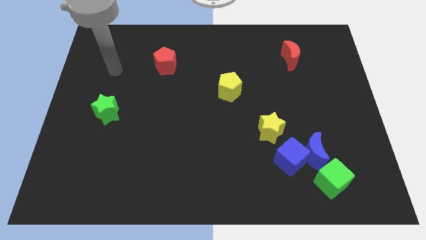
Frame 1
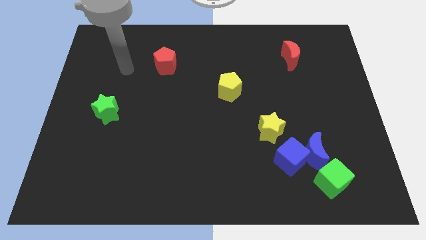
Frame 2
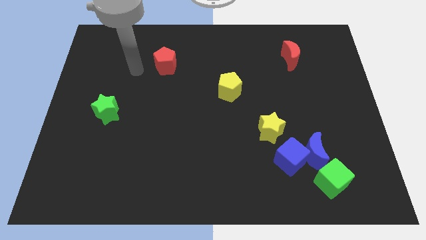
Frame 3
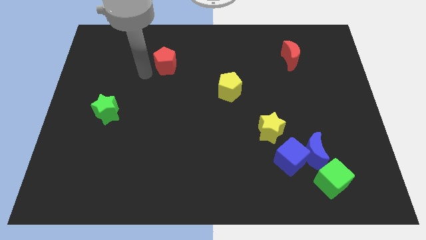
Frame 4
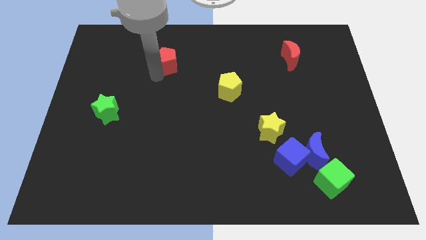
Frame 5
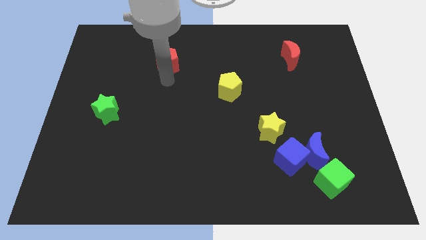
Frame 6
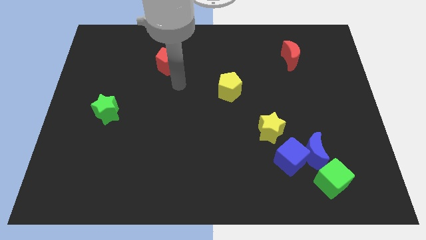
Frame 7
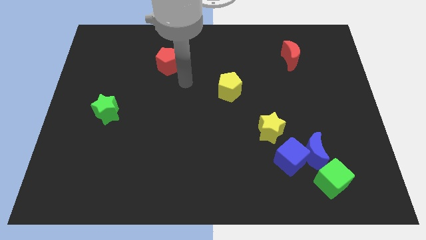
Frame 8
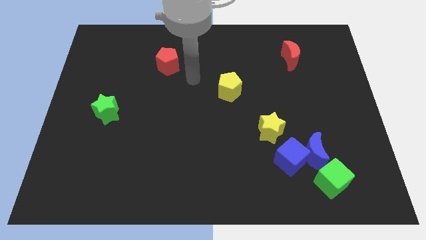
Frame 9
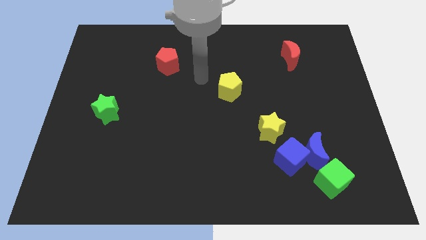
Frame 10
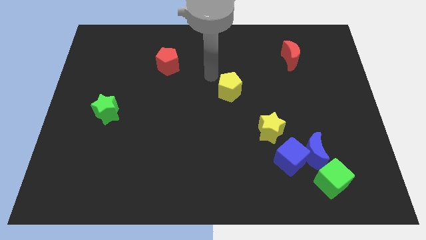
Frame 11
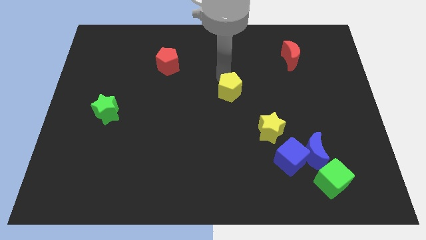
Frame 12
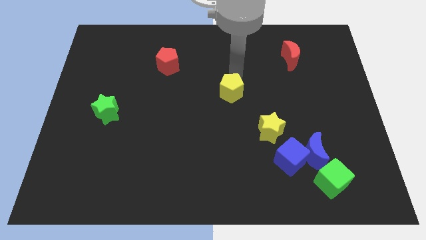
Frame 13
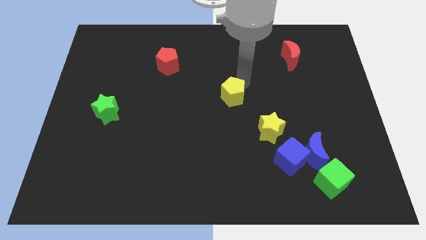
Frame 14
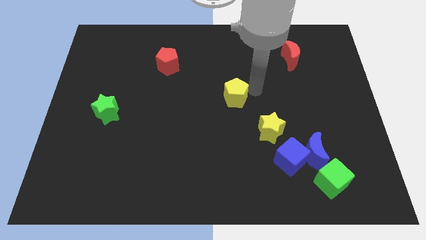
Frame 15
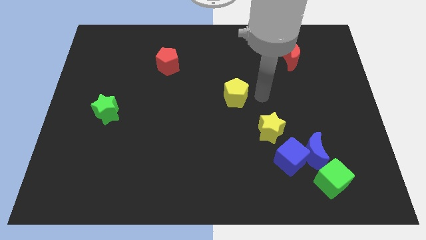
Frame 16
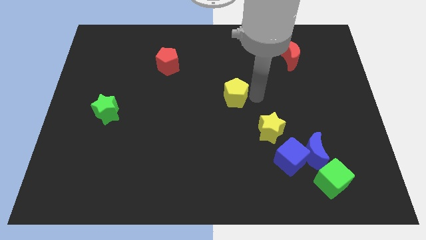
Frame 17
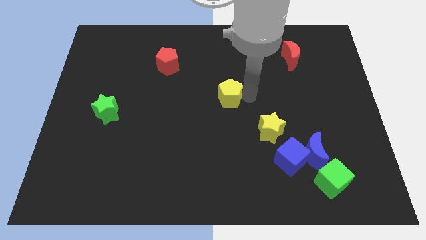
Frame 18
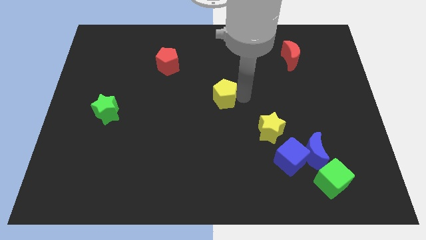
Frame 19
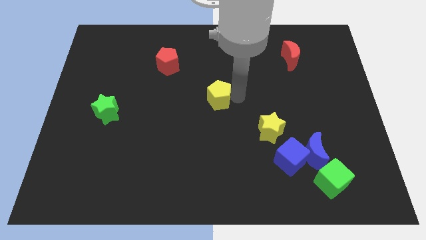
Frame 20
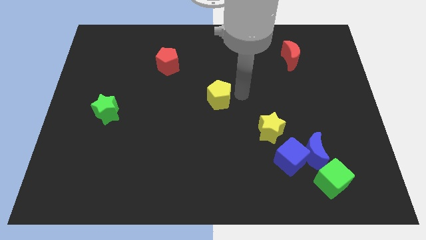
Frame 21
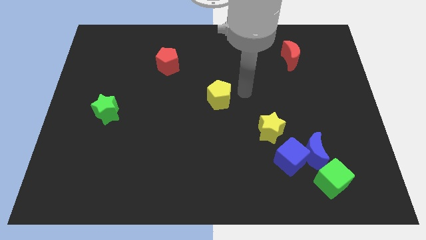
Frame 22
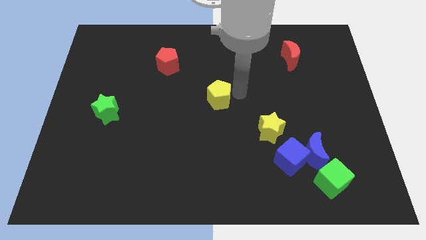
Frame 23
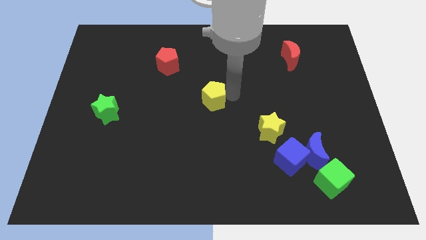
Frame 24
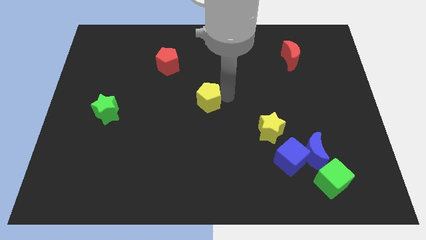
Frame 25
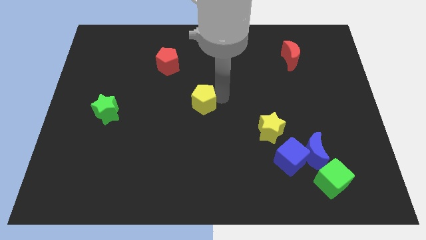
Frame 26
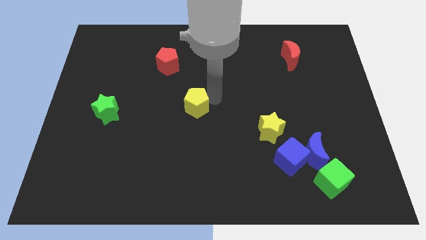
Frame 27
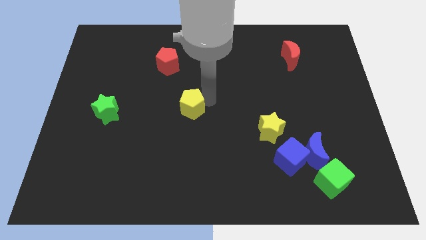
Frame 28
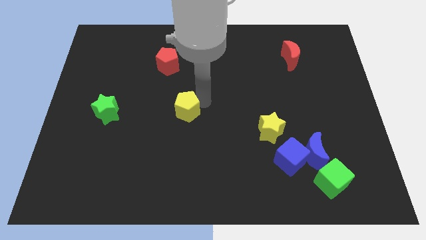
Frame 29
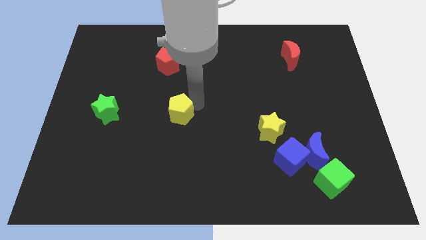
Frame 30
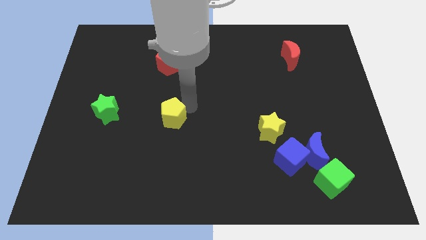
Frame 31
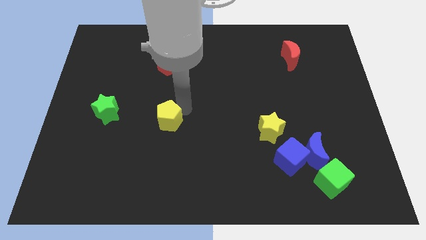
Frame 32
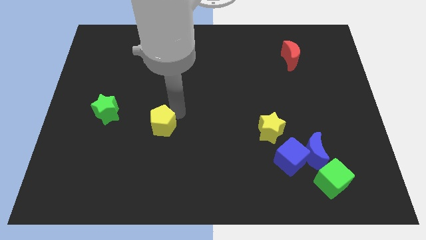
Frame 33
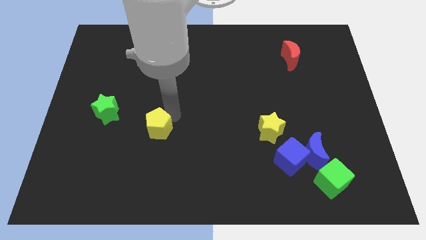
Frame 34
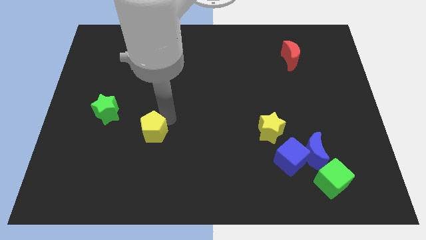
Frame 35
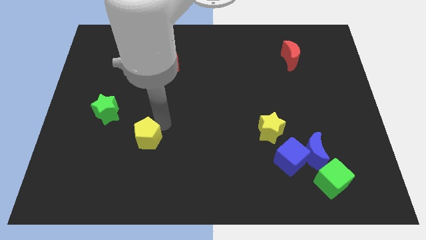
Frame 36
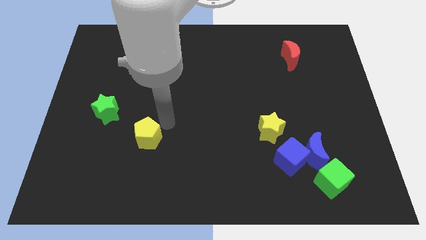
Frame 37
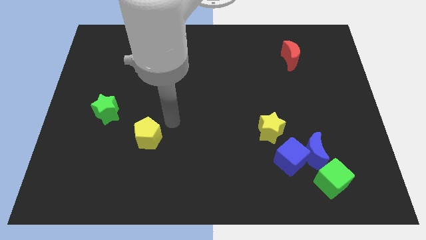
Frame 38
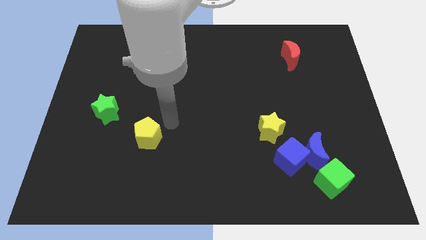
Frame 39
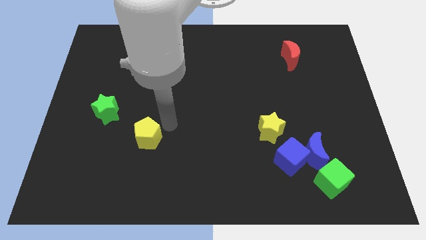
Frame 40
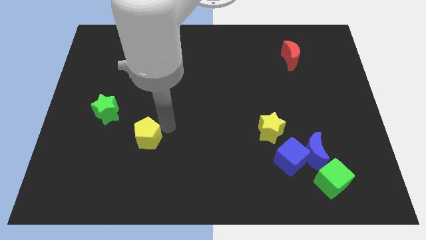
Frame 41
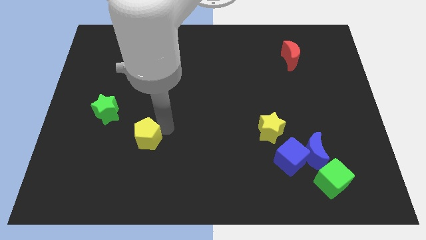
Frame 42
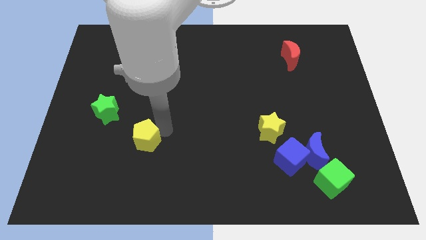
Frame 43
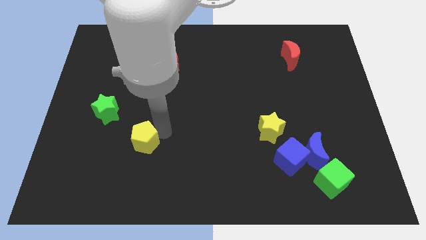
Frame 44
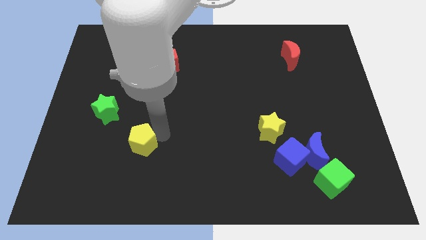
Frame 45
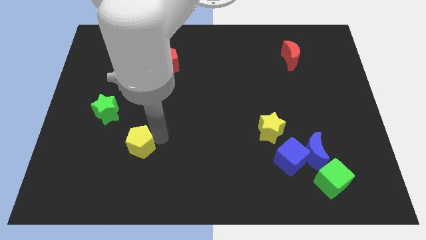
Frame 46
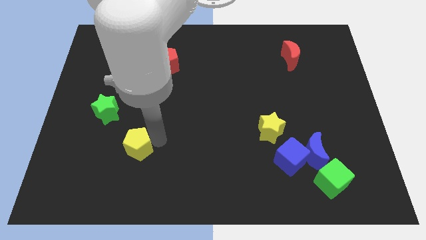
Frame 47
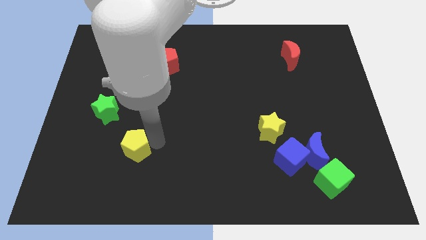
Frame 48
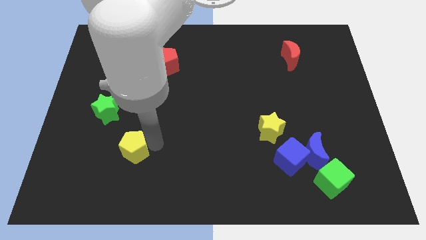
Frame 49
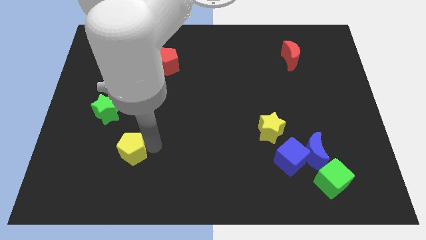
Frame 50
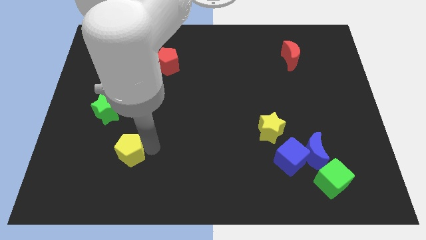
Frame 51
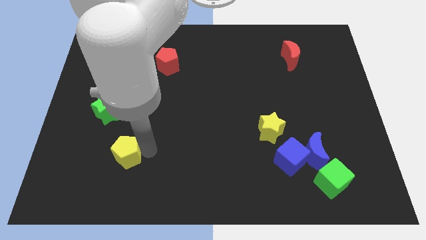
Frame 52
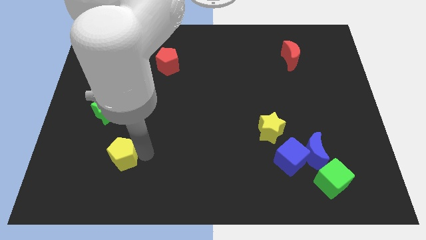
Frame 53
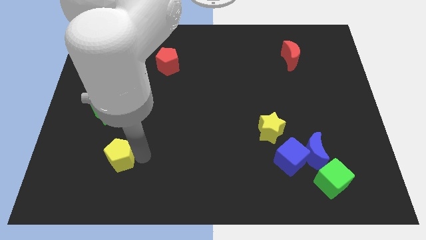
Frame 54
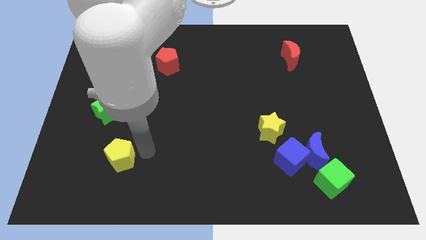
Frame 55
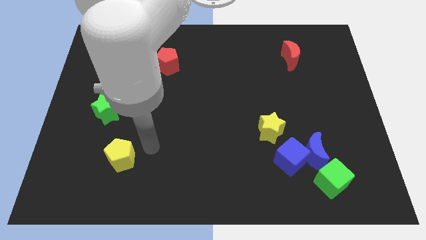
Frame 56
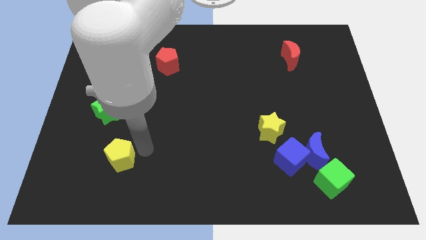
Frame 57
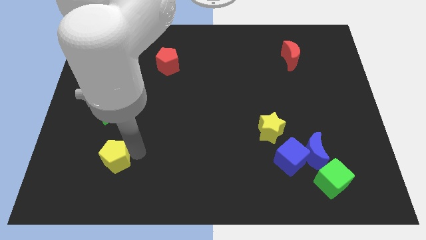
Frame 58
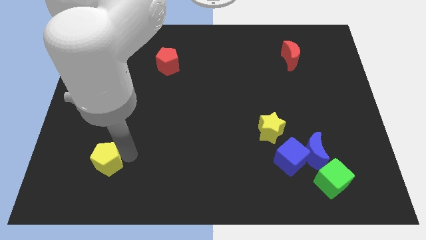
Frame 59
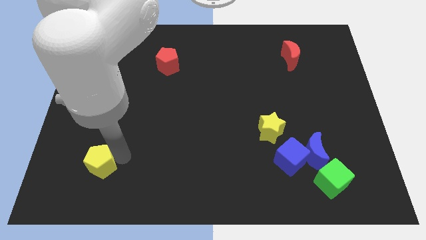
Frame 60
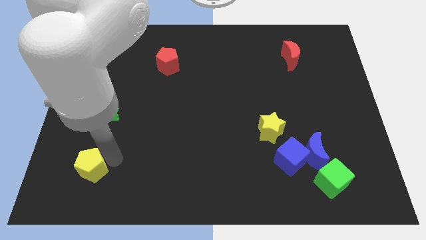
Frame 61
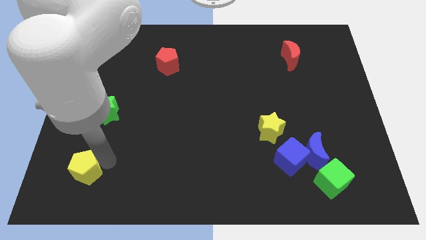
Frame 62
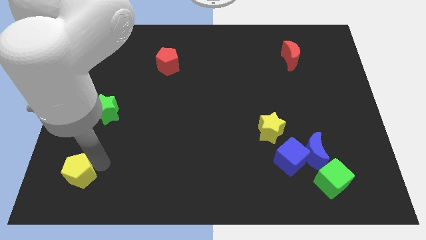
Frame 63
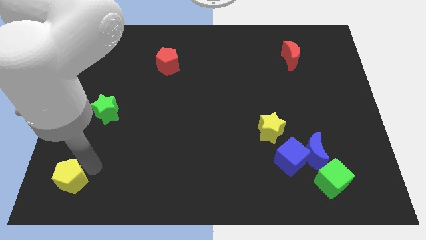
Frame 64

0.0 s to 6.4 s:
slide the yellow pentagon to the lower left corner

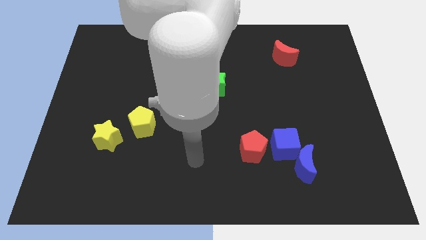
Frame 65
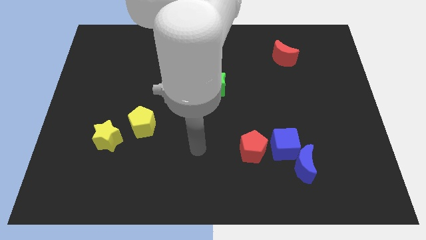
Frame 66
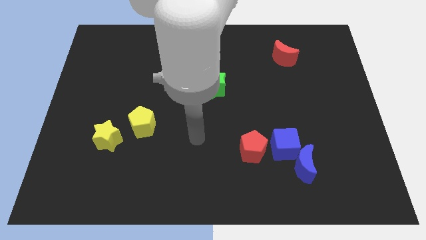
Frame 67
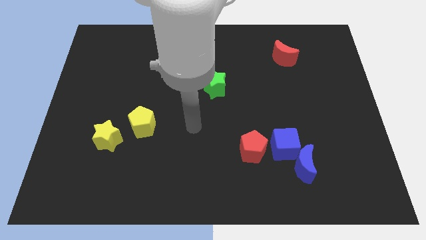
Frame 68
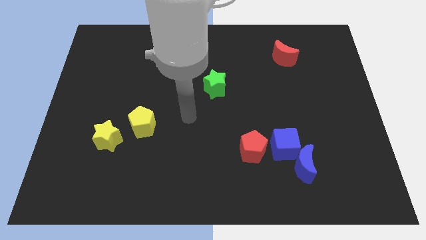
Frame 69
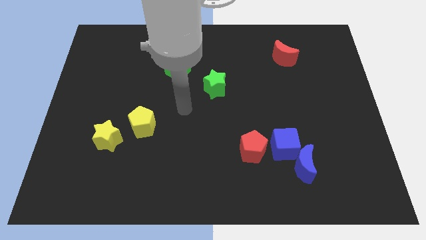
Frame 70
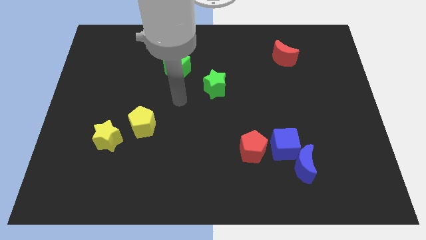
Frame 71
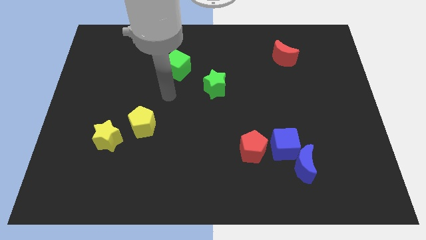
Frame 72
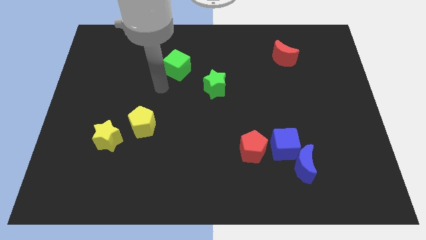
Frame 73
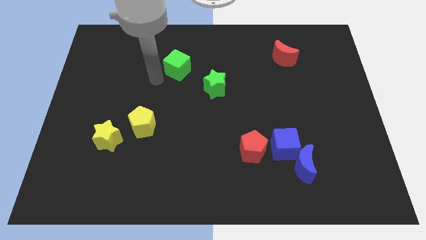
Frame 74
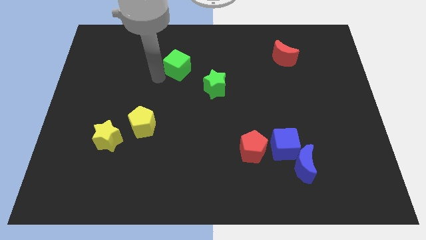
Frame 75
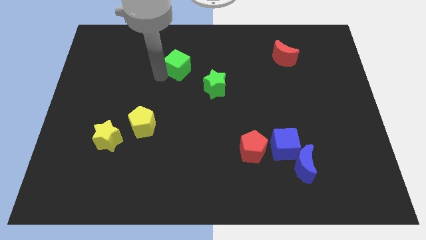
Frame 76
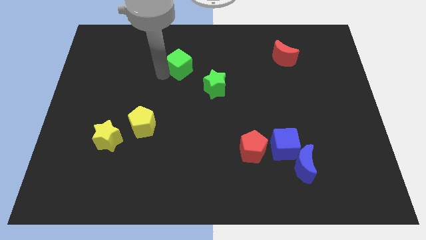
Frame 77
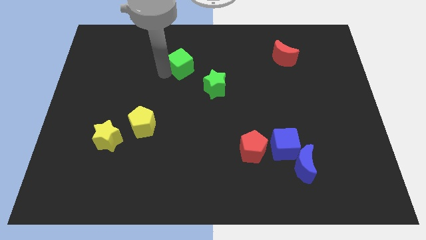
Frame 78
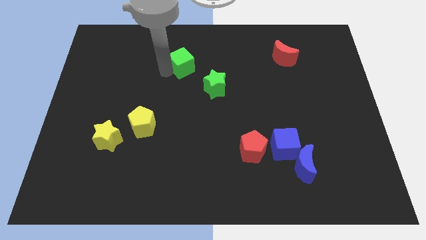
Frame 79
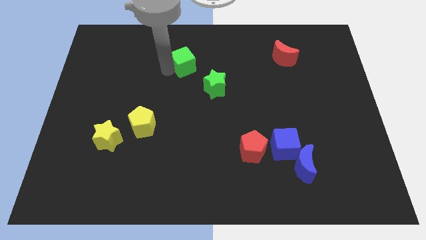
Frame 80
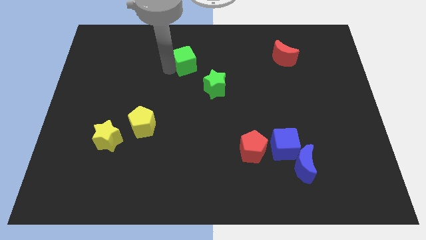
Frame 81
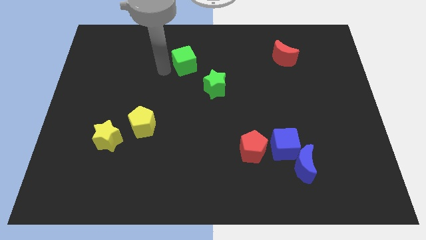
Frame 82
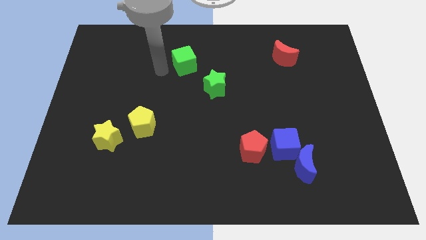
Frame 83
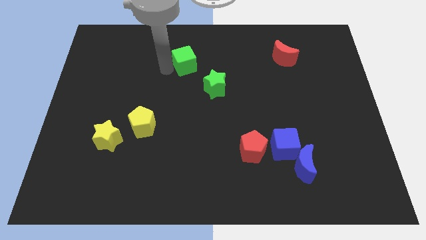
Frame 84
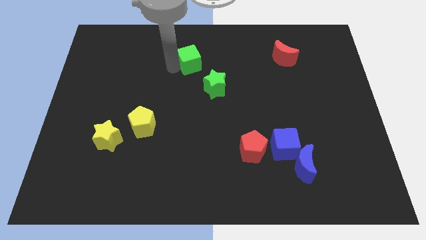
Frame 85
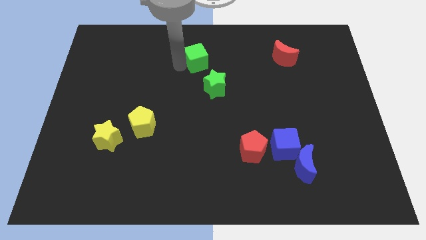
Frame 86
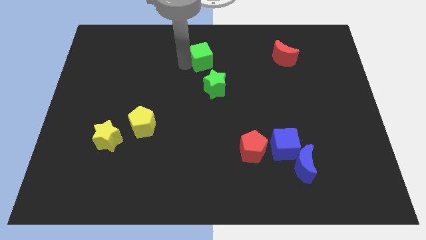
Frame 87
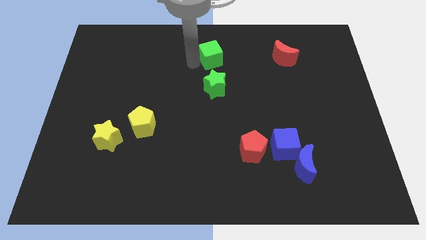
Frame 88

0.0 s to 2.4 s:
put the green cube to the towards your base
